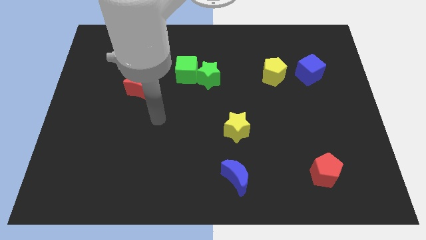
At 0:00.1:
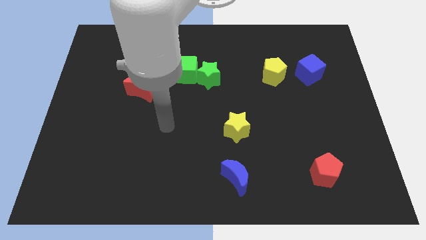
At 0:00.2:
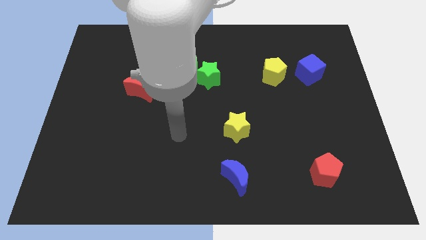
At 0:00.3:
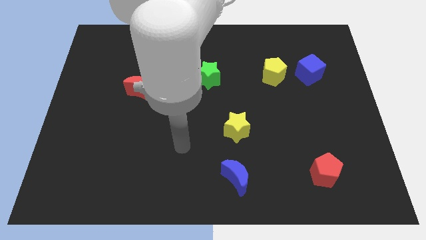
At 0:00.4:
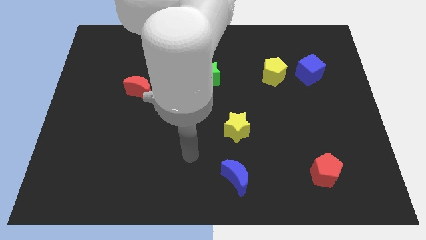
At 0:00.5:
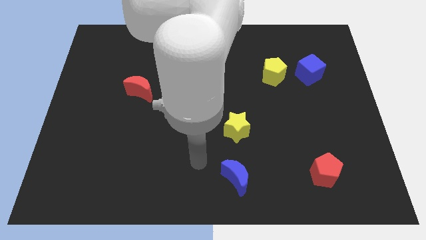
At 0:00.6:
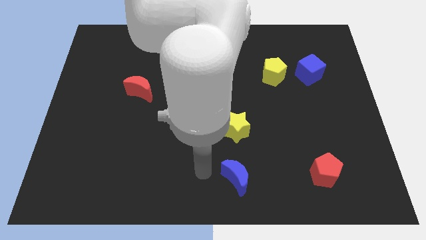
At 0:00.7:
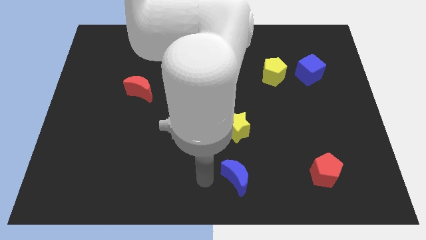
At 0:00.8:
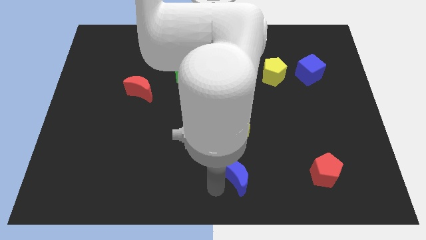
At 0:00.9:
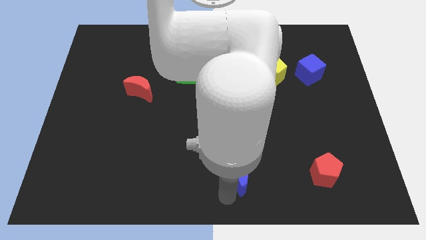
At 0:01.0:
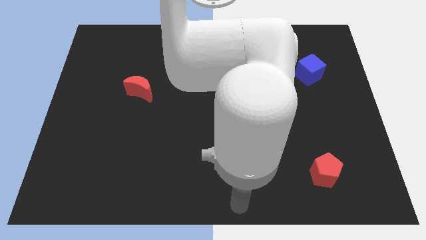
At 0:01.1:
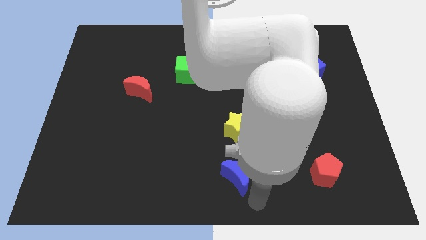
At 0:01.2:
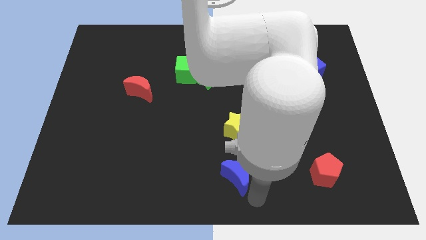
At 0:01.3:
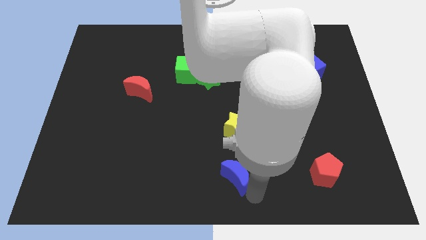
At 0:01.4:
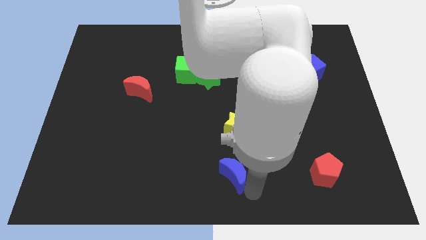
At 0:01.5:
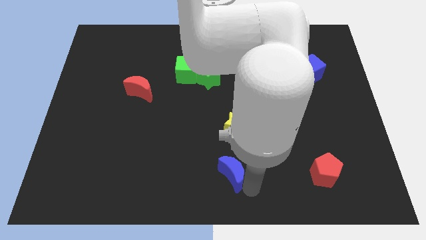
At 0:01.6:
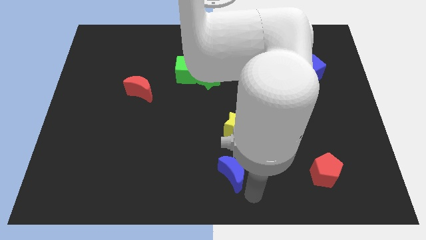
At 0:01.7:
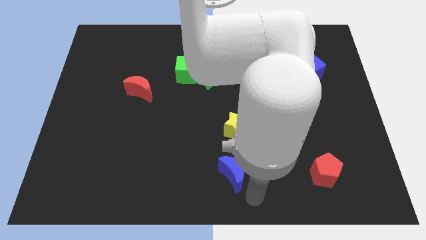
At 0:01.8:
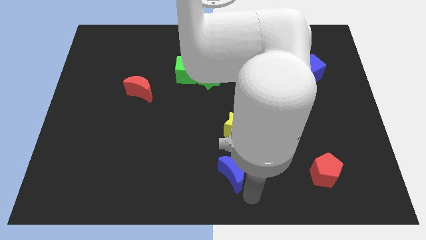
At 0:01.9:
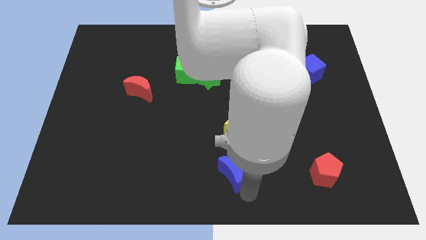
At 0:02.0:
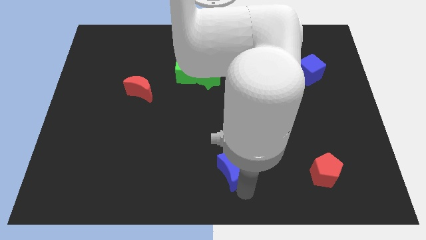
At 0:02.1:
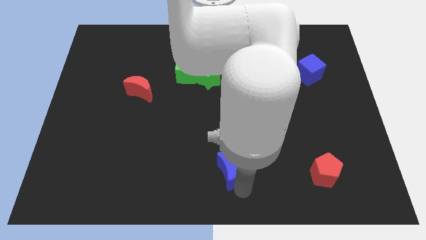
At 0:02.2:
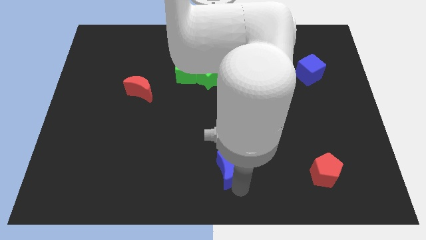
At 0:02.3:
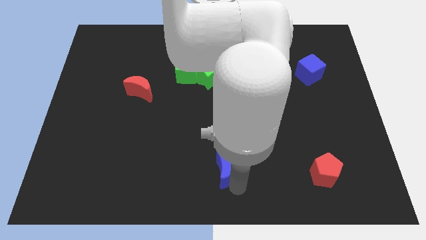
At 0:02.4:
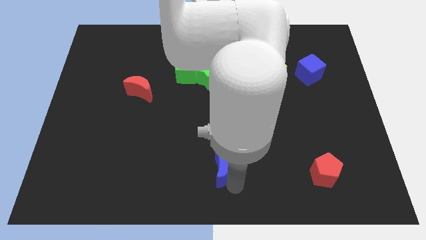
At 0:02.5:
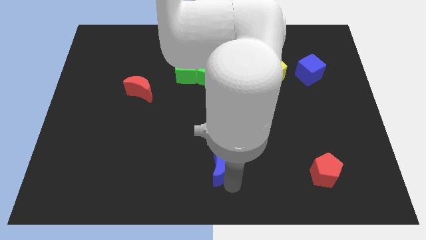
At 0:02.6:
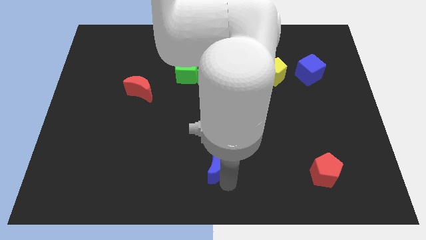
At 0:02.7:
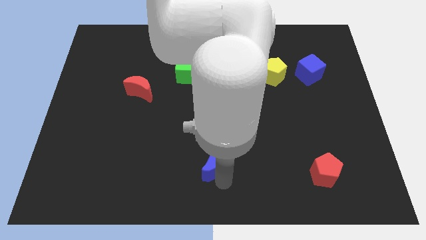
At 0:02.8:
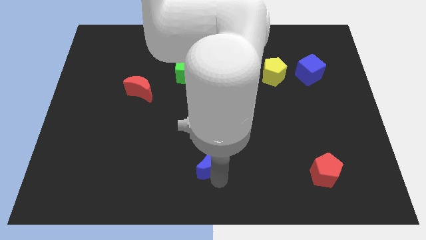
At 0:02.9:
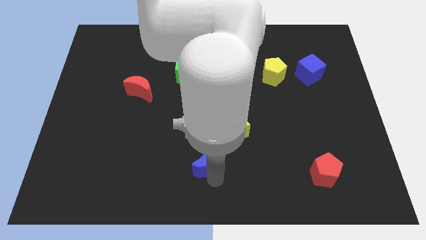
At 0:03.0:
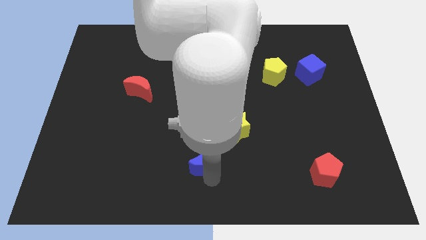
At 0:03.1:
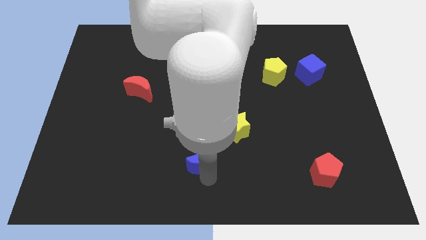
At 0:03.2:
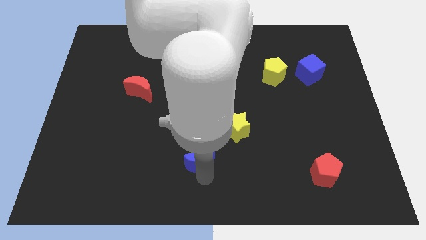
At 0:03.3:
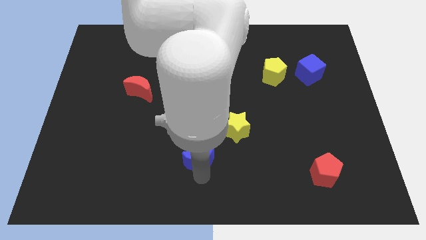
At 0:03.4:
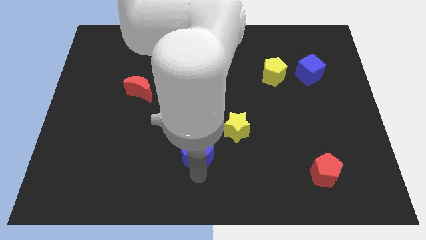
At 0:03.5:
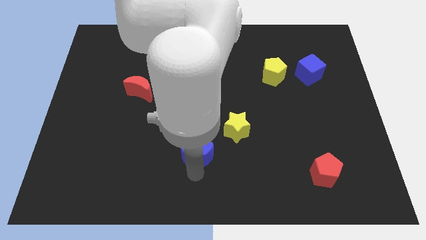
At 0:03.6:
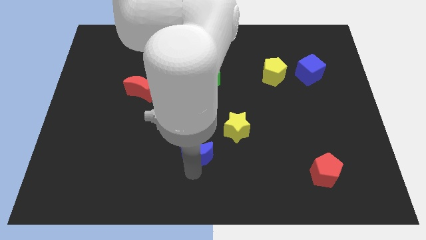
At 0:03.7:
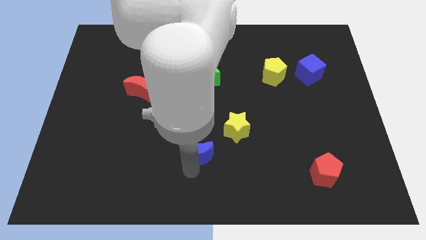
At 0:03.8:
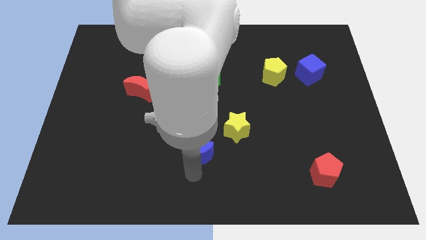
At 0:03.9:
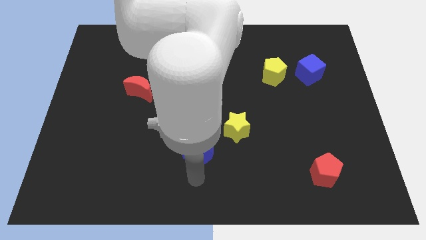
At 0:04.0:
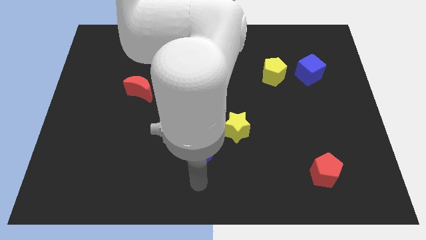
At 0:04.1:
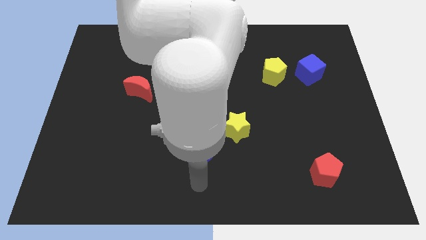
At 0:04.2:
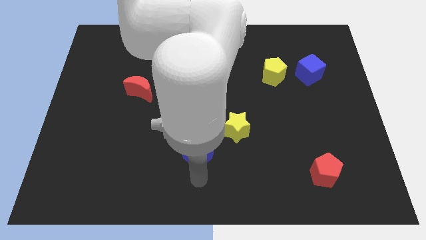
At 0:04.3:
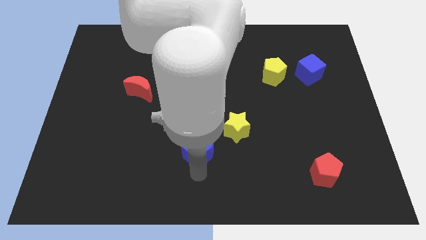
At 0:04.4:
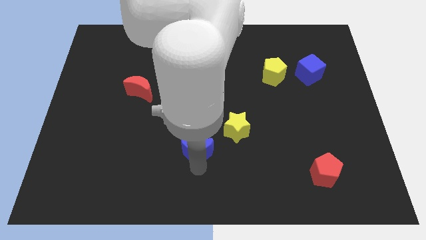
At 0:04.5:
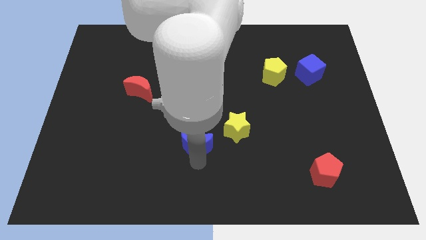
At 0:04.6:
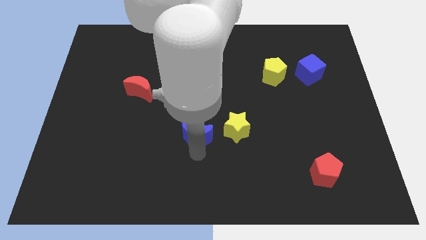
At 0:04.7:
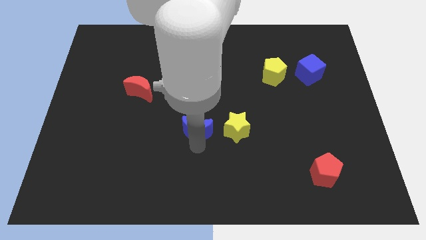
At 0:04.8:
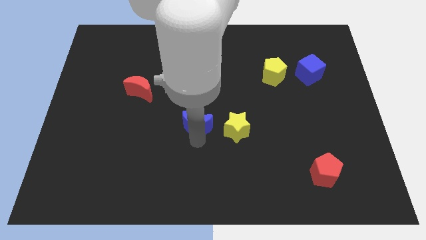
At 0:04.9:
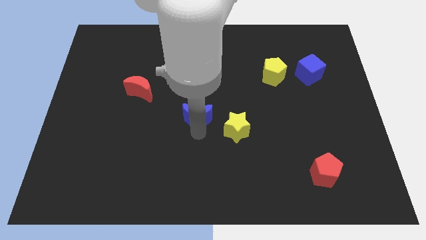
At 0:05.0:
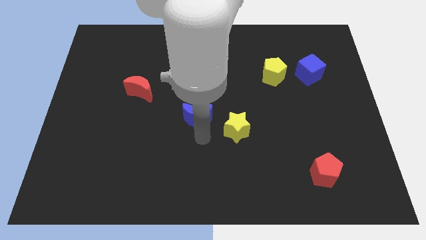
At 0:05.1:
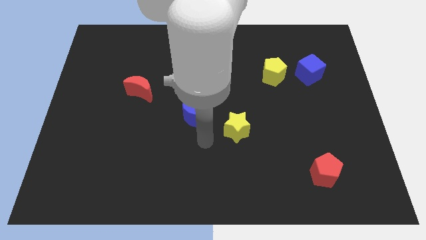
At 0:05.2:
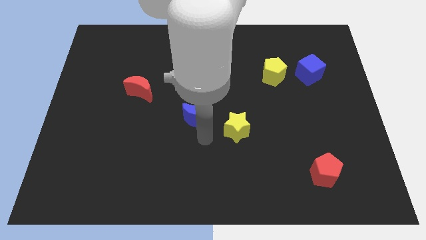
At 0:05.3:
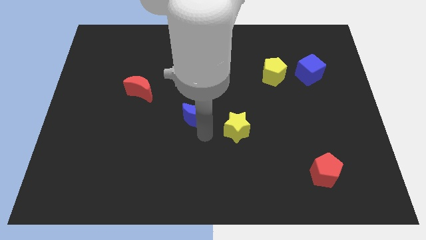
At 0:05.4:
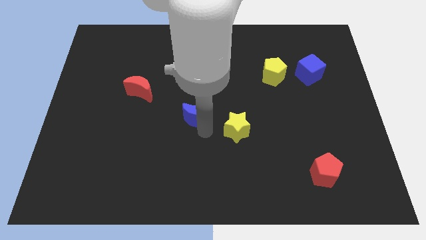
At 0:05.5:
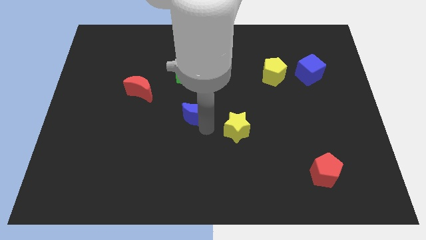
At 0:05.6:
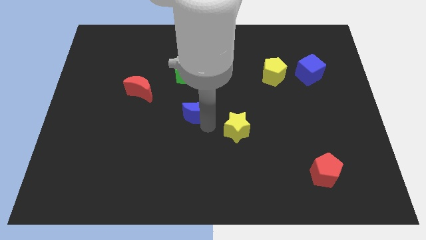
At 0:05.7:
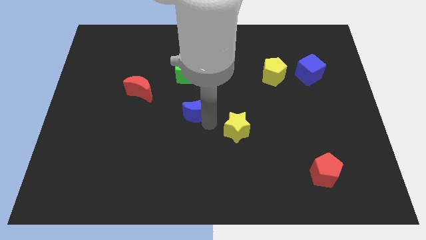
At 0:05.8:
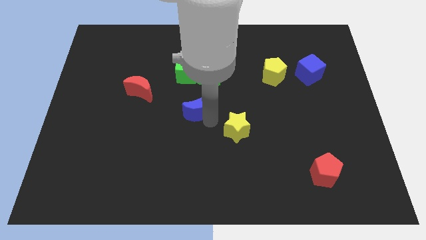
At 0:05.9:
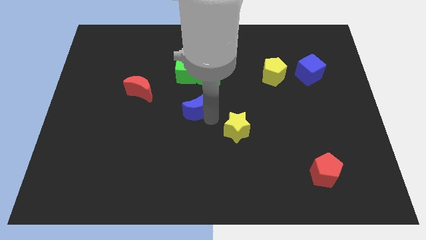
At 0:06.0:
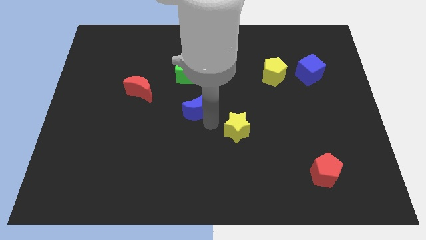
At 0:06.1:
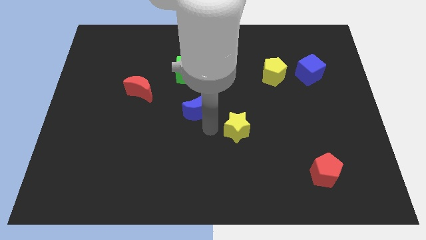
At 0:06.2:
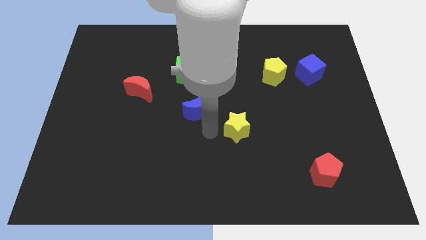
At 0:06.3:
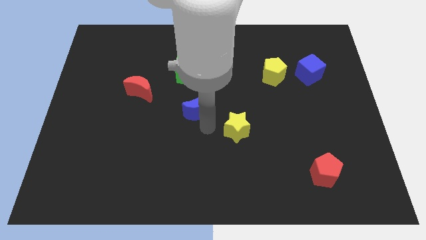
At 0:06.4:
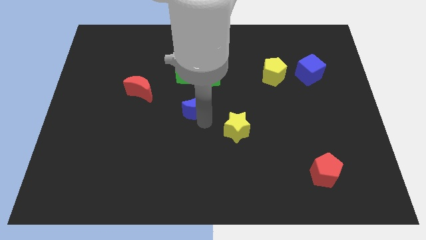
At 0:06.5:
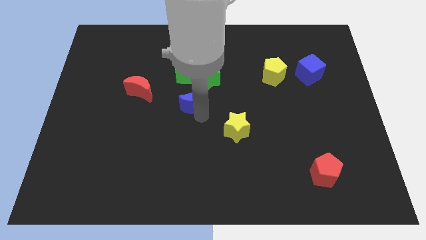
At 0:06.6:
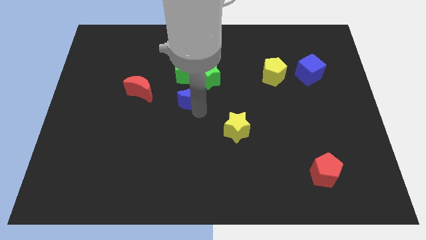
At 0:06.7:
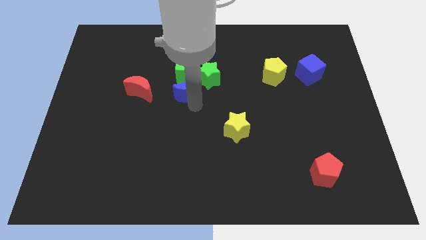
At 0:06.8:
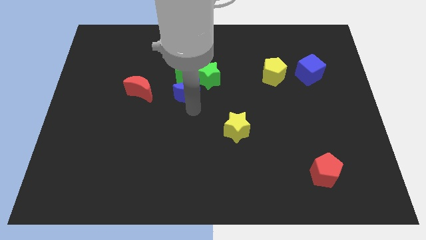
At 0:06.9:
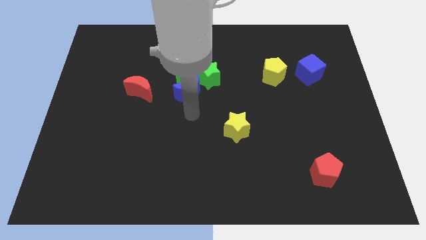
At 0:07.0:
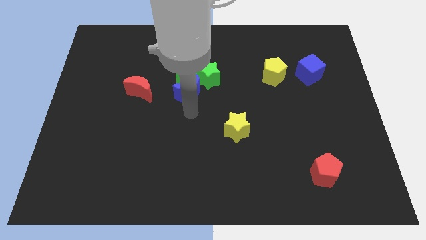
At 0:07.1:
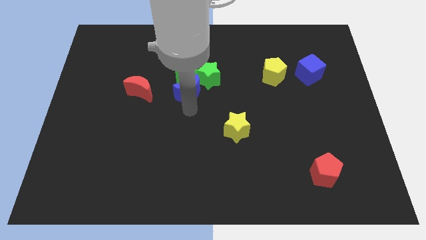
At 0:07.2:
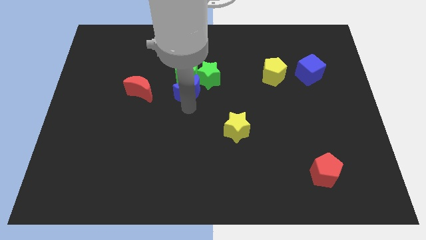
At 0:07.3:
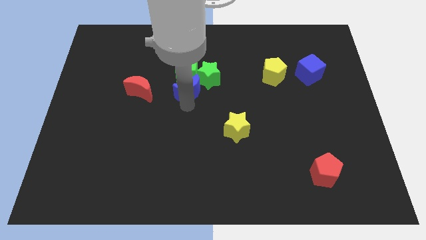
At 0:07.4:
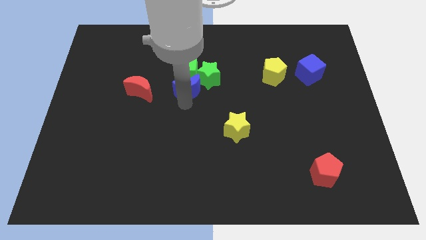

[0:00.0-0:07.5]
move the blue moon close to the green cube
